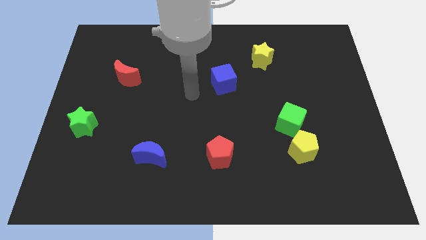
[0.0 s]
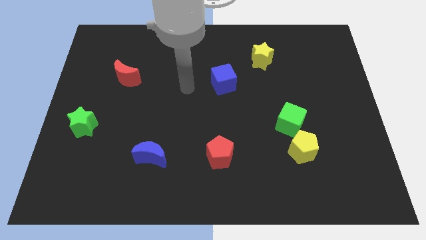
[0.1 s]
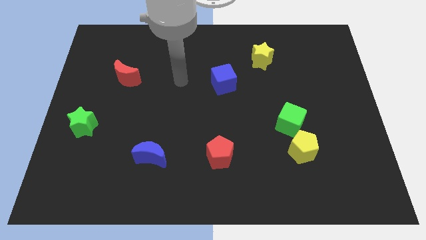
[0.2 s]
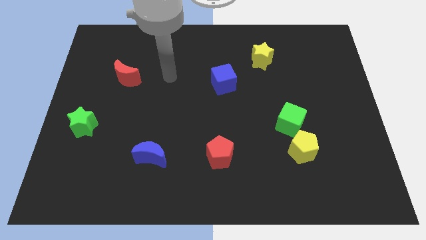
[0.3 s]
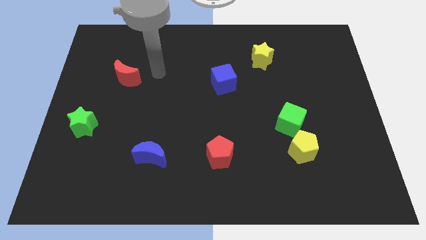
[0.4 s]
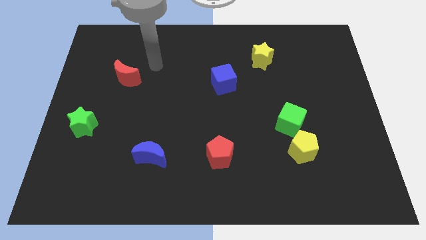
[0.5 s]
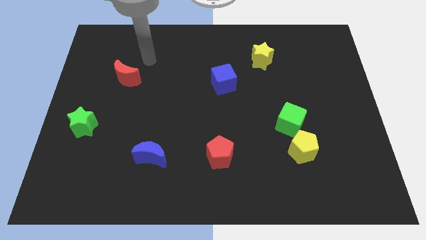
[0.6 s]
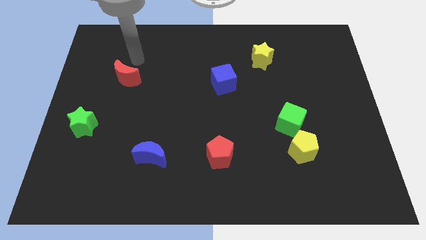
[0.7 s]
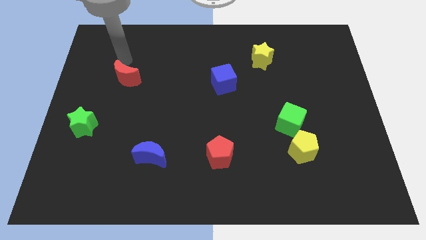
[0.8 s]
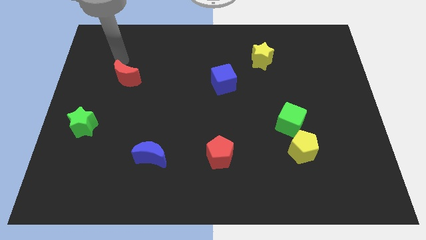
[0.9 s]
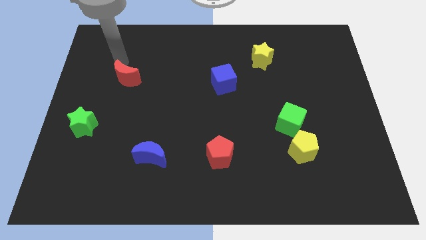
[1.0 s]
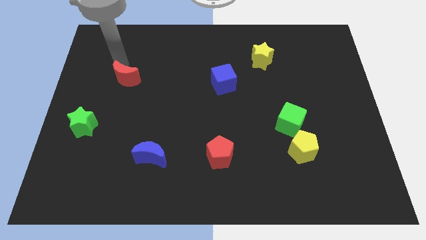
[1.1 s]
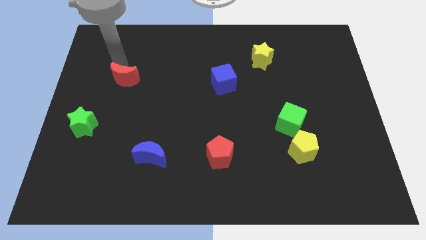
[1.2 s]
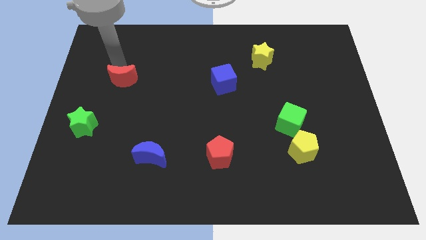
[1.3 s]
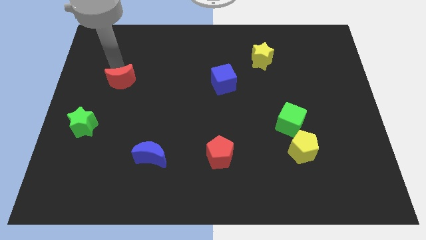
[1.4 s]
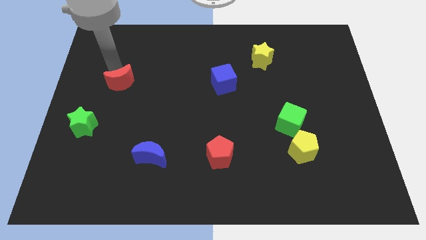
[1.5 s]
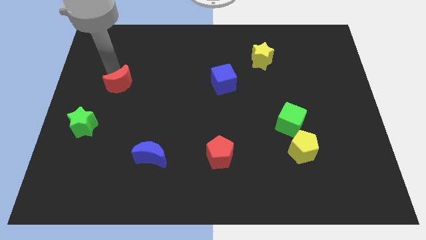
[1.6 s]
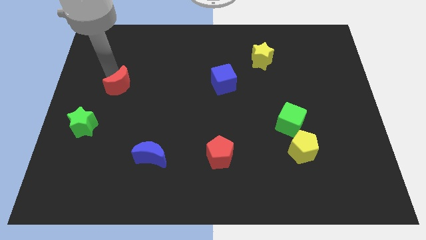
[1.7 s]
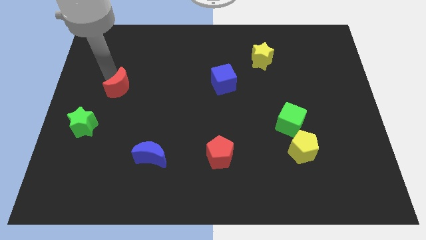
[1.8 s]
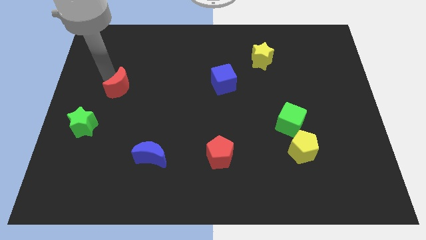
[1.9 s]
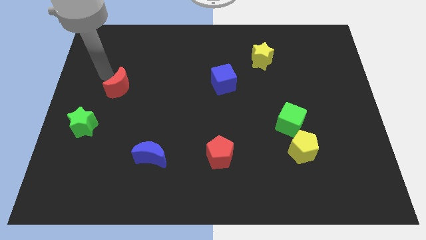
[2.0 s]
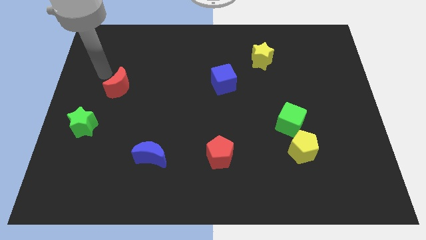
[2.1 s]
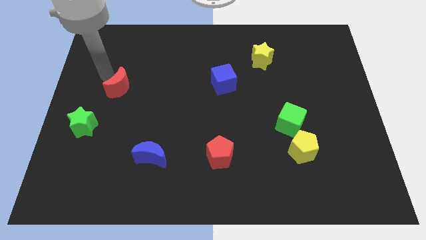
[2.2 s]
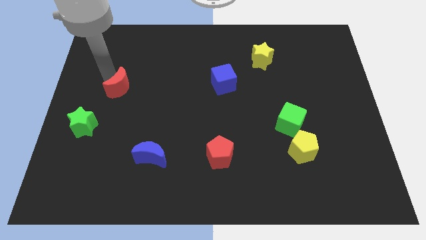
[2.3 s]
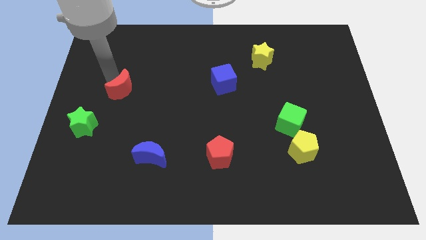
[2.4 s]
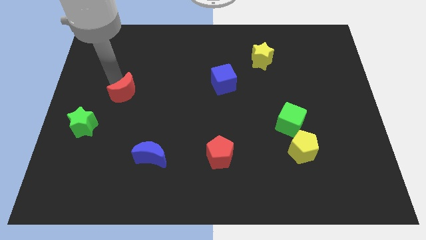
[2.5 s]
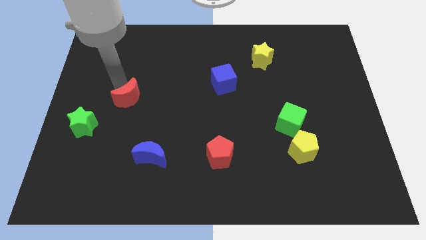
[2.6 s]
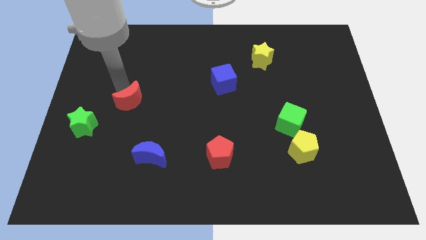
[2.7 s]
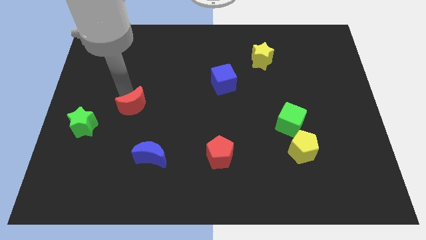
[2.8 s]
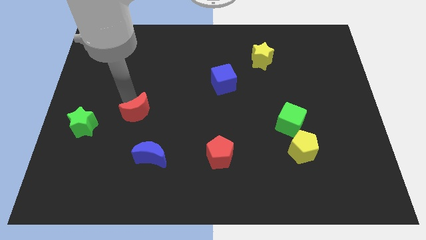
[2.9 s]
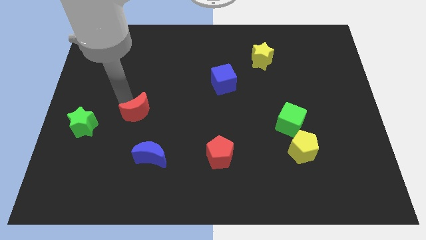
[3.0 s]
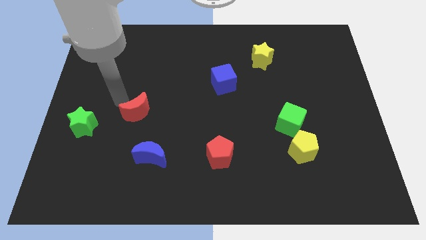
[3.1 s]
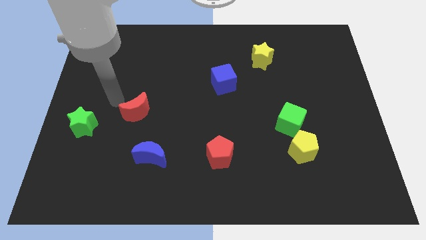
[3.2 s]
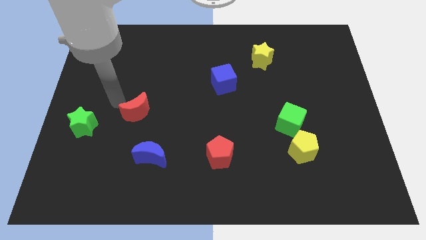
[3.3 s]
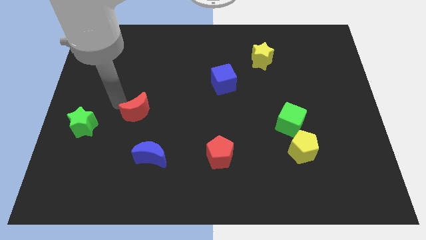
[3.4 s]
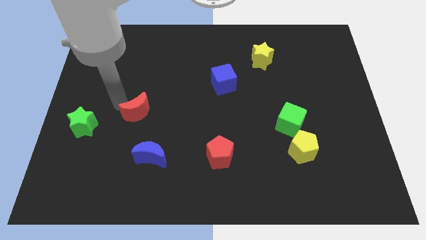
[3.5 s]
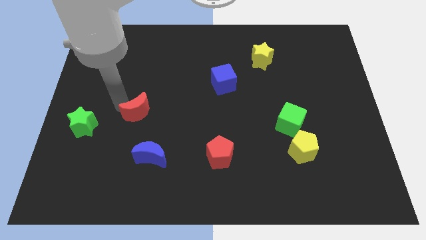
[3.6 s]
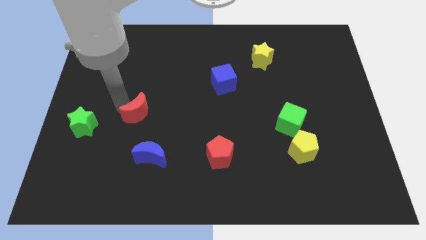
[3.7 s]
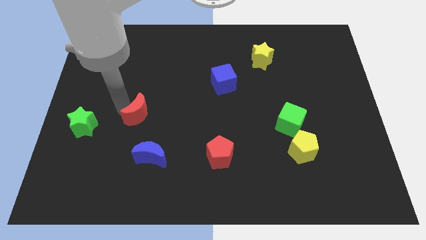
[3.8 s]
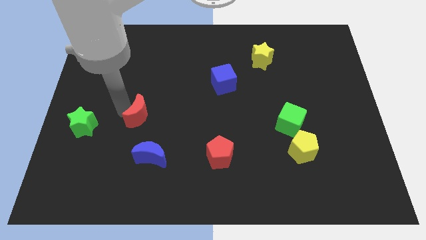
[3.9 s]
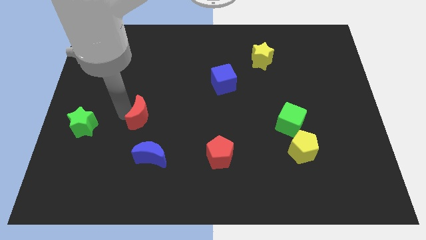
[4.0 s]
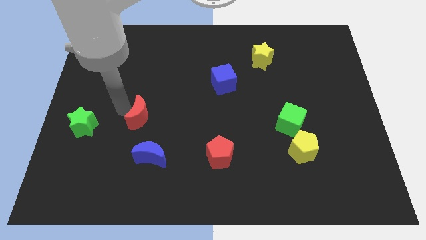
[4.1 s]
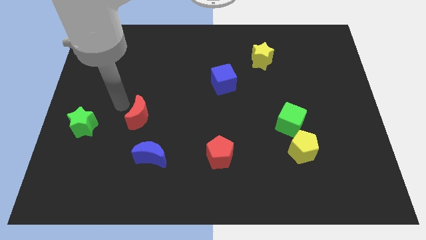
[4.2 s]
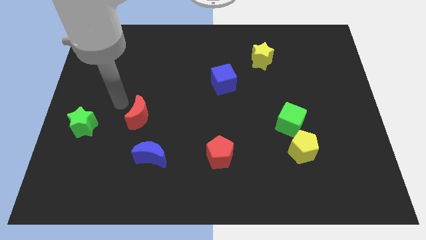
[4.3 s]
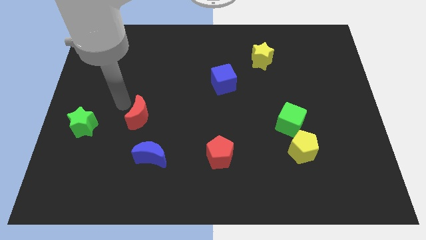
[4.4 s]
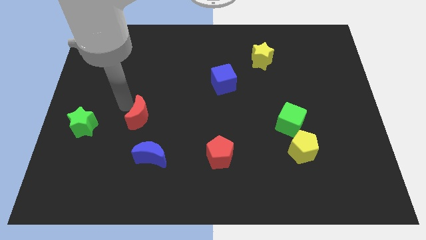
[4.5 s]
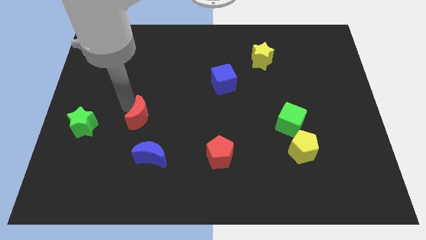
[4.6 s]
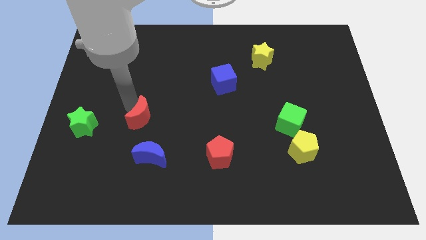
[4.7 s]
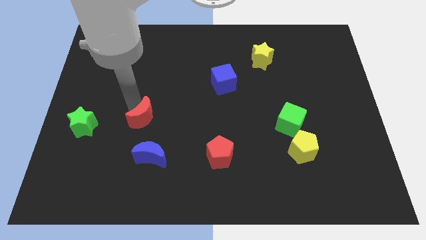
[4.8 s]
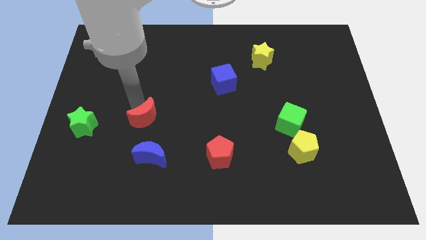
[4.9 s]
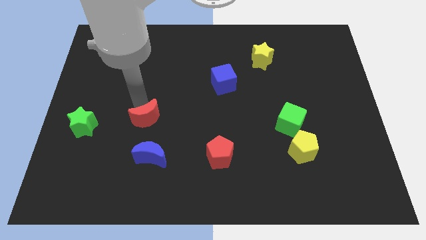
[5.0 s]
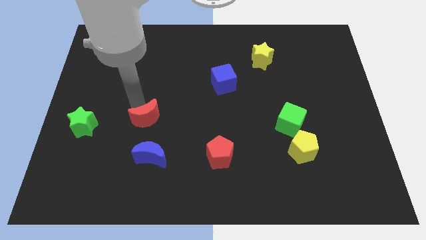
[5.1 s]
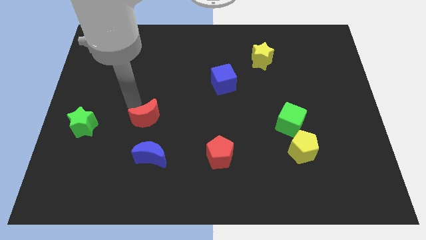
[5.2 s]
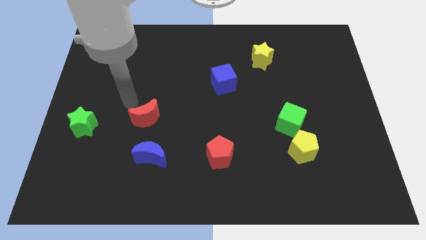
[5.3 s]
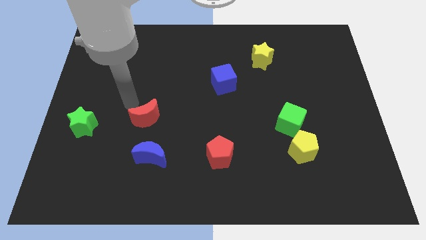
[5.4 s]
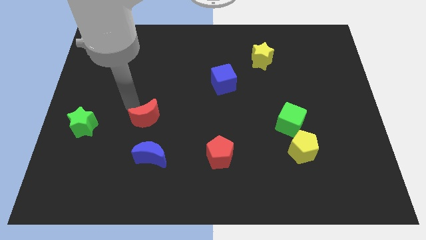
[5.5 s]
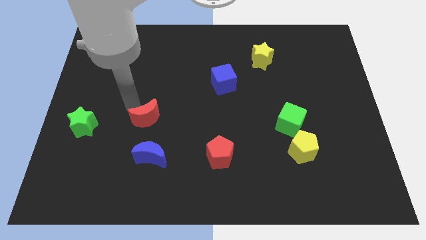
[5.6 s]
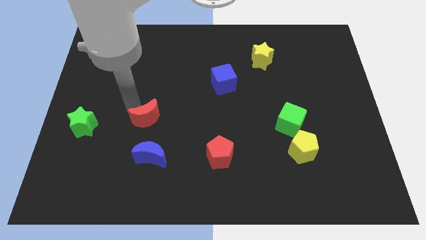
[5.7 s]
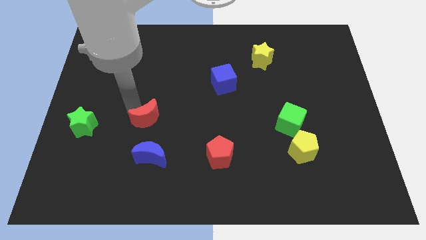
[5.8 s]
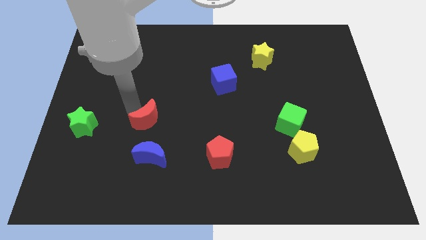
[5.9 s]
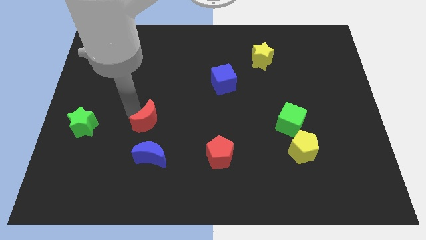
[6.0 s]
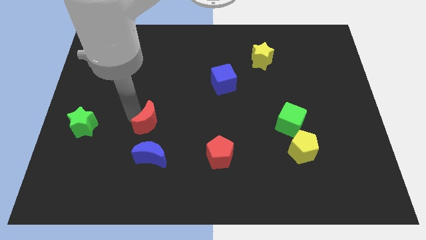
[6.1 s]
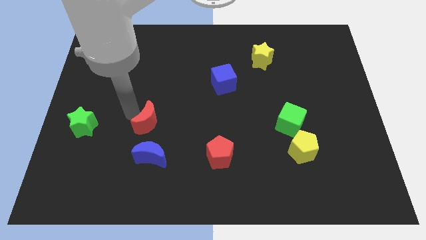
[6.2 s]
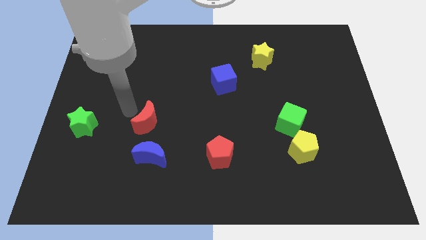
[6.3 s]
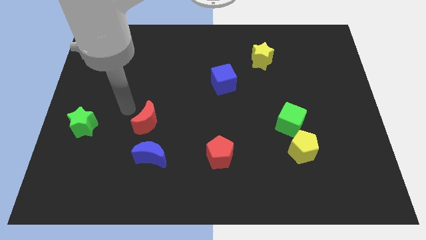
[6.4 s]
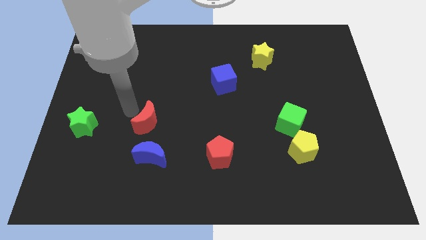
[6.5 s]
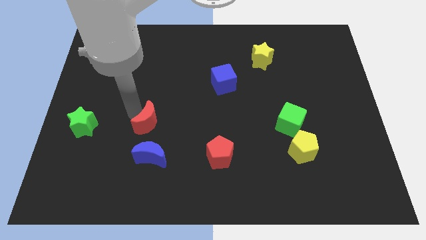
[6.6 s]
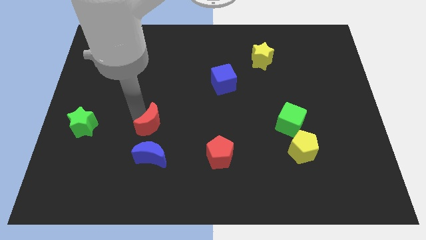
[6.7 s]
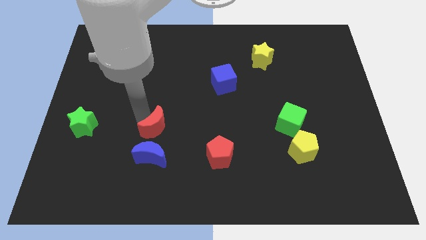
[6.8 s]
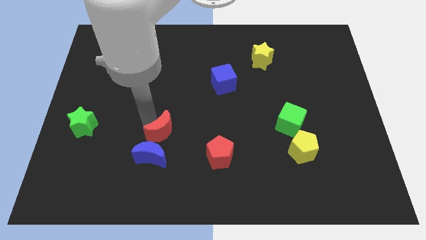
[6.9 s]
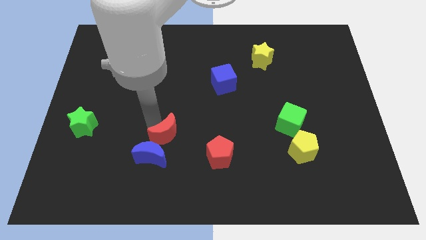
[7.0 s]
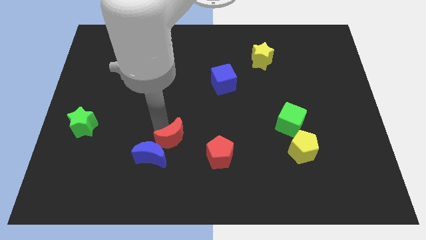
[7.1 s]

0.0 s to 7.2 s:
slide the red moon just left of the red pentagon
